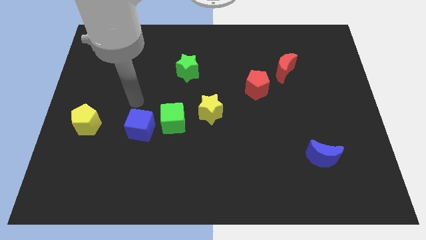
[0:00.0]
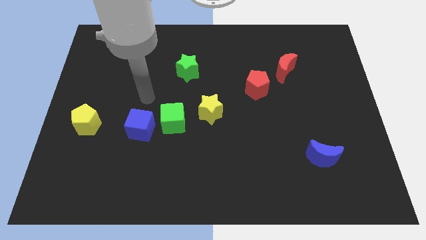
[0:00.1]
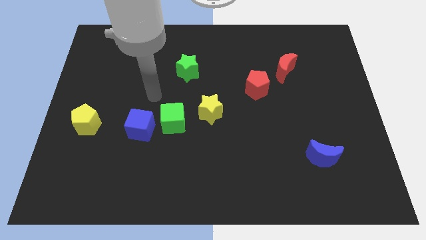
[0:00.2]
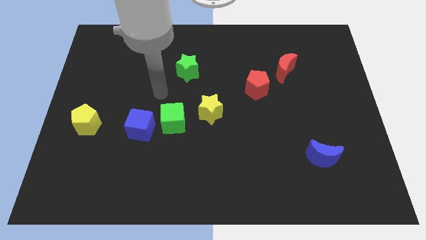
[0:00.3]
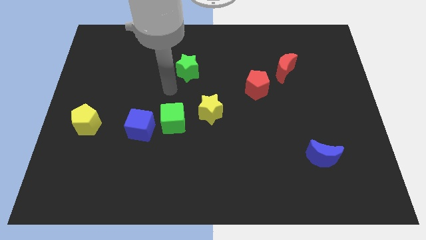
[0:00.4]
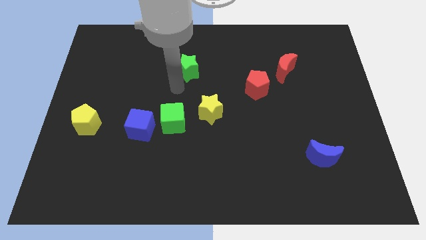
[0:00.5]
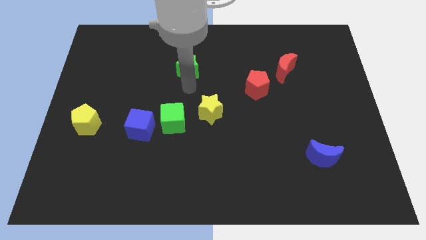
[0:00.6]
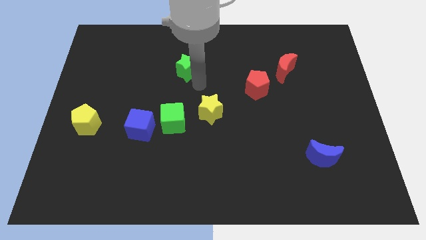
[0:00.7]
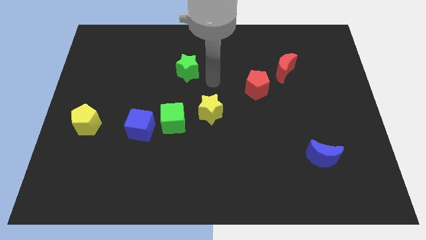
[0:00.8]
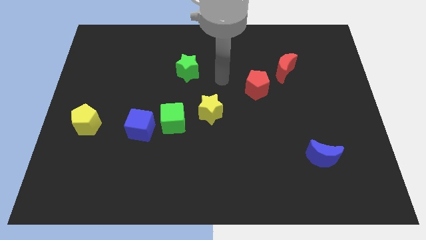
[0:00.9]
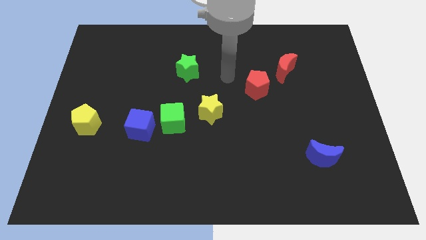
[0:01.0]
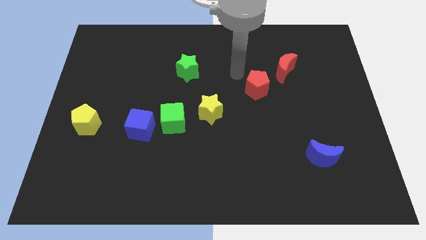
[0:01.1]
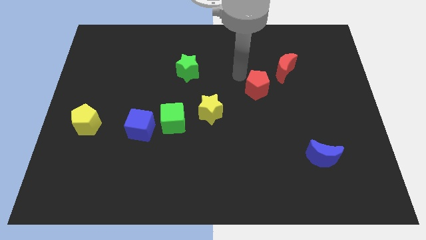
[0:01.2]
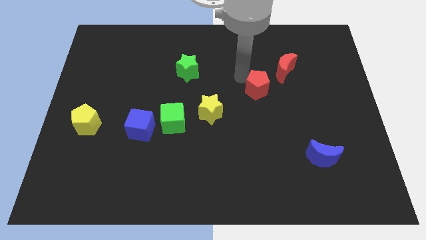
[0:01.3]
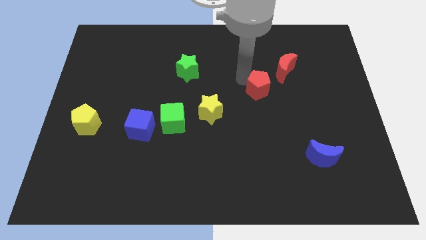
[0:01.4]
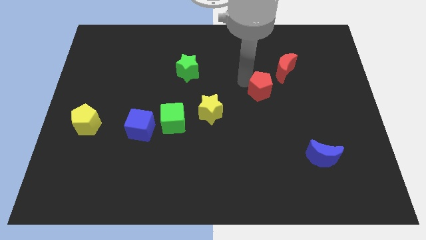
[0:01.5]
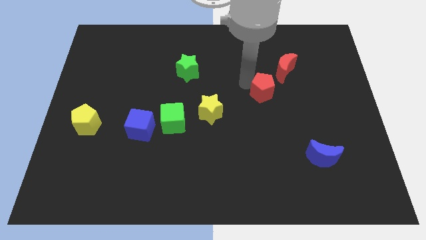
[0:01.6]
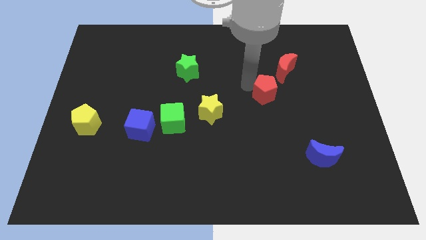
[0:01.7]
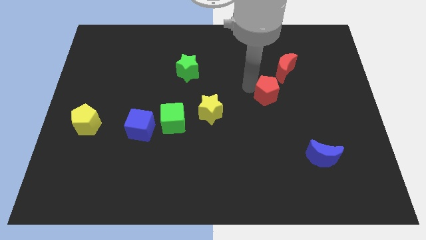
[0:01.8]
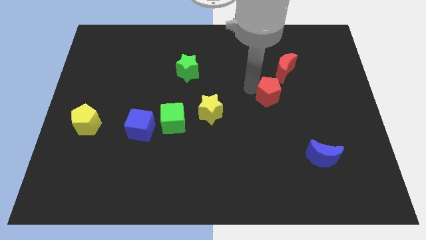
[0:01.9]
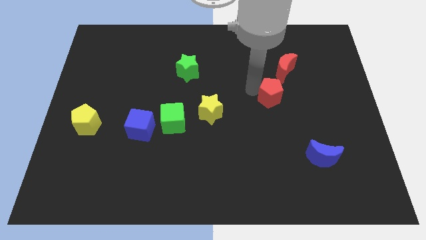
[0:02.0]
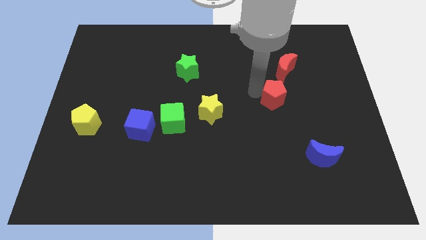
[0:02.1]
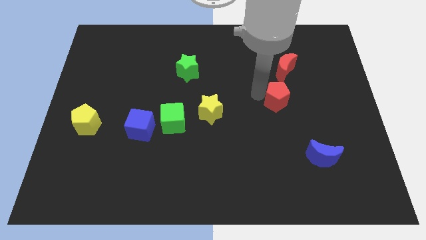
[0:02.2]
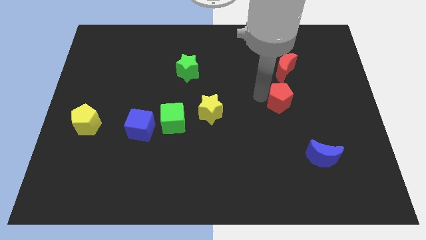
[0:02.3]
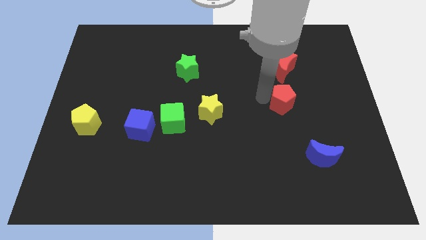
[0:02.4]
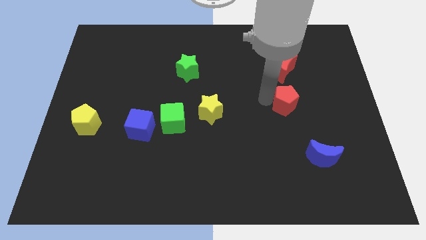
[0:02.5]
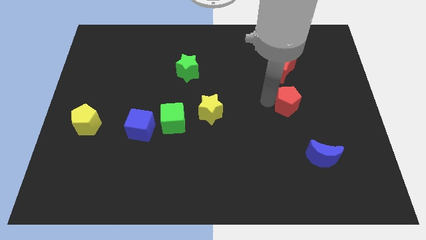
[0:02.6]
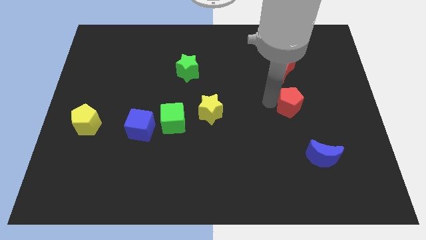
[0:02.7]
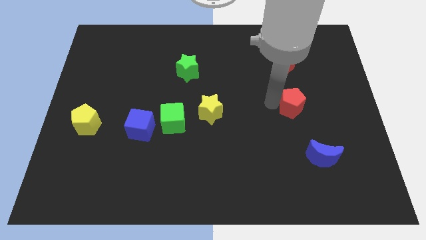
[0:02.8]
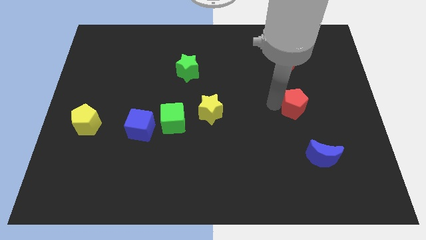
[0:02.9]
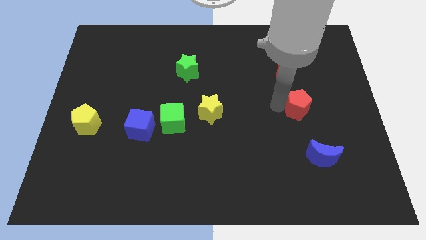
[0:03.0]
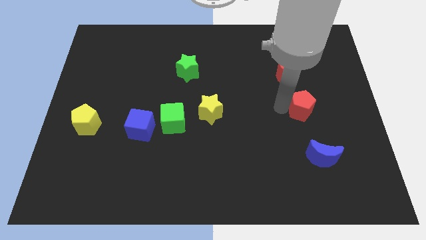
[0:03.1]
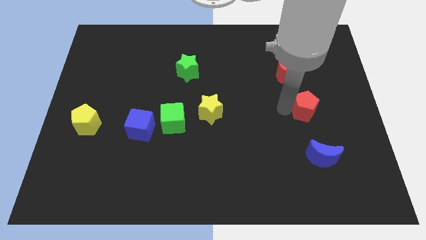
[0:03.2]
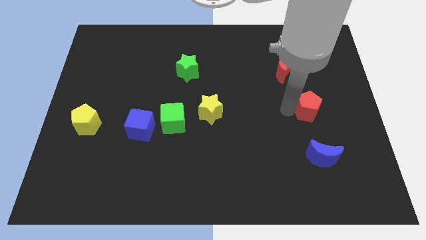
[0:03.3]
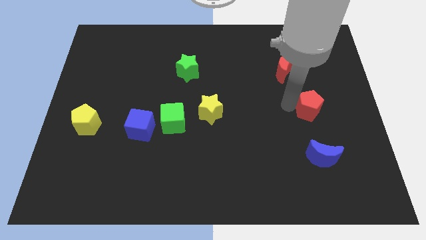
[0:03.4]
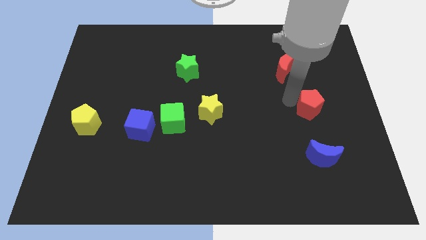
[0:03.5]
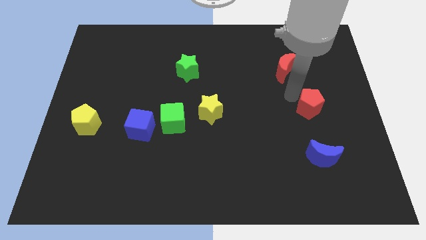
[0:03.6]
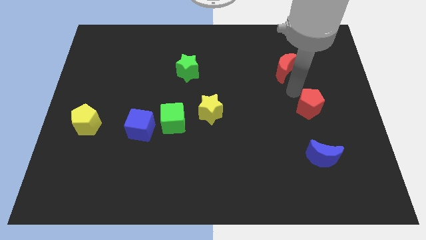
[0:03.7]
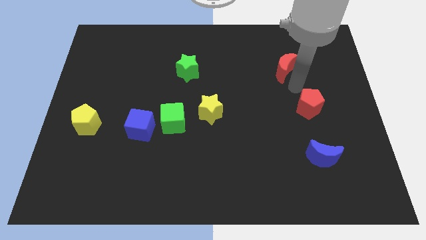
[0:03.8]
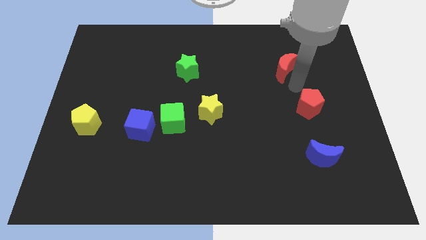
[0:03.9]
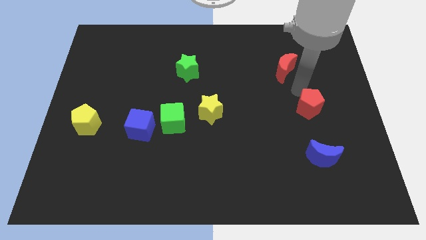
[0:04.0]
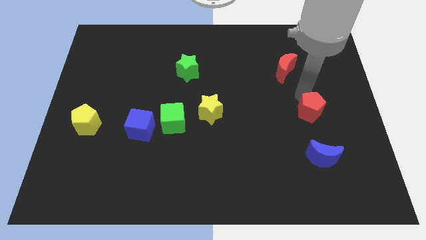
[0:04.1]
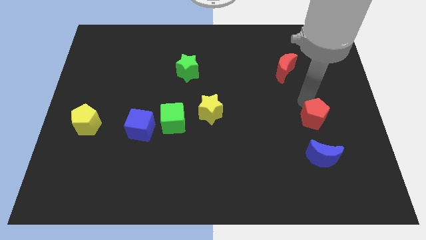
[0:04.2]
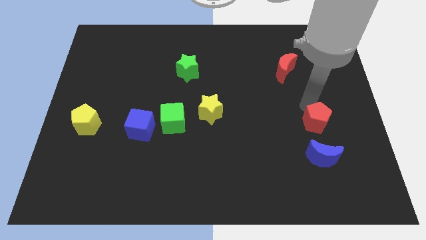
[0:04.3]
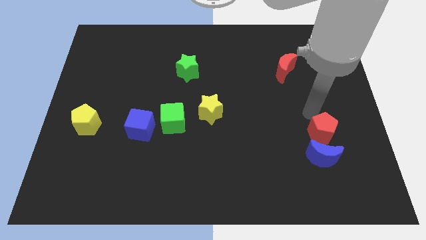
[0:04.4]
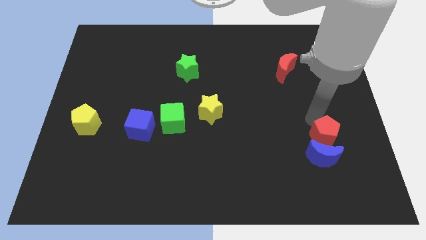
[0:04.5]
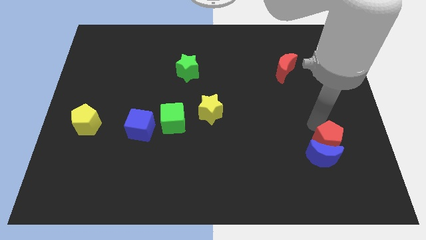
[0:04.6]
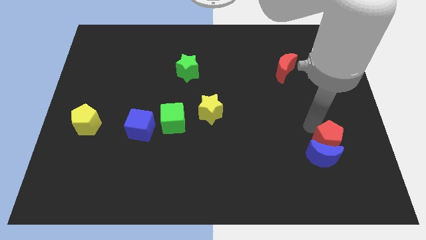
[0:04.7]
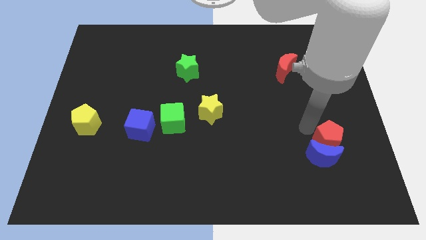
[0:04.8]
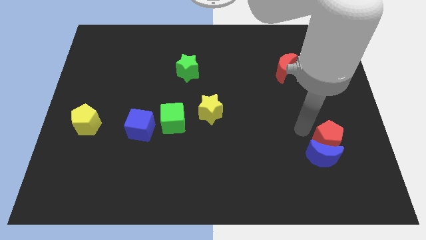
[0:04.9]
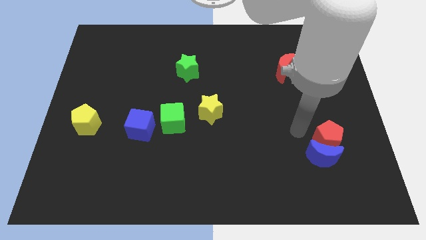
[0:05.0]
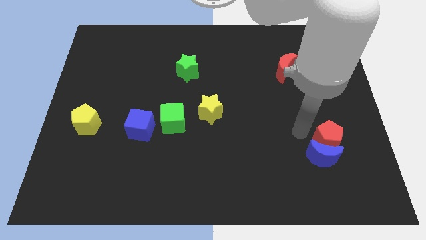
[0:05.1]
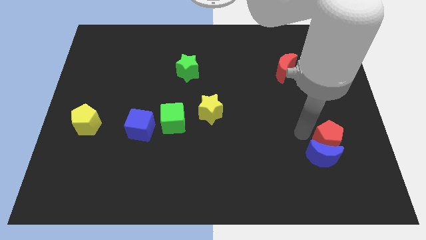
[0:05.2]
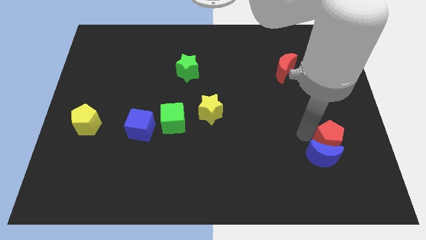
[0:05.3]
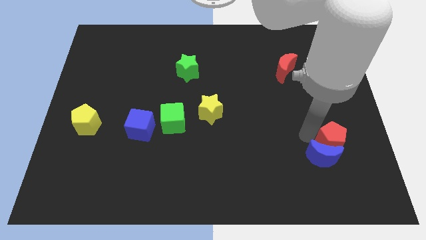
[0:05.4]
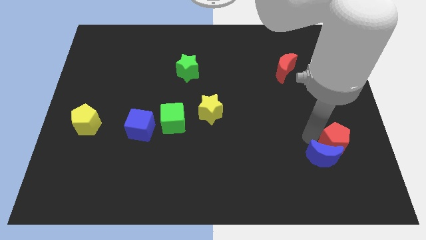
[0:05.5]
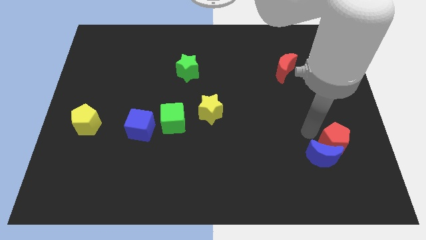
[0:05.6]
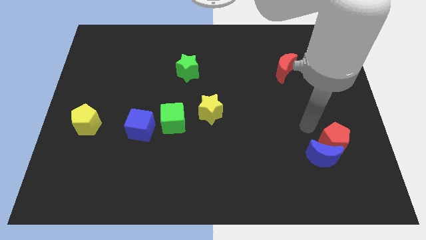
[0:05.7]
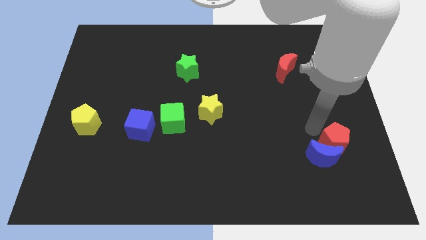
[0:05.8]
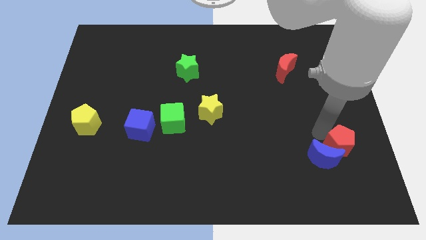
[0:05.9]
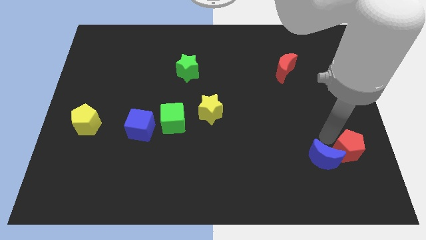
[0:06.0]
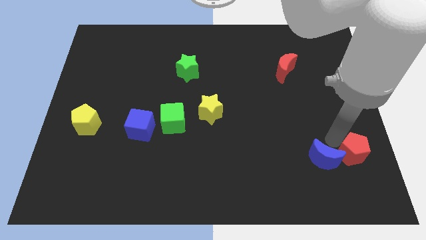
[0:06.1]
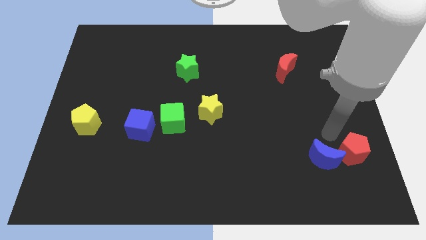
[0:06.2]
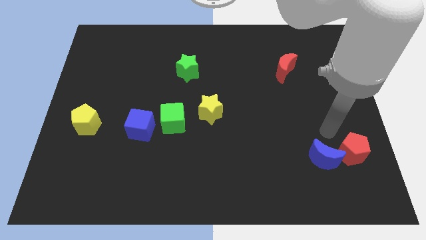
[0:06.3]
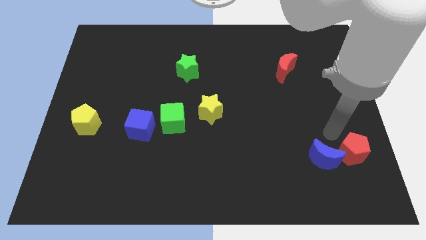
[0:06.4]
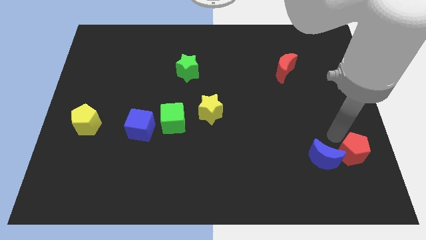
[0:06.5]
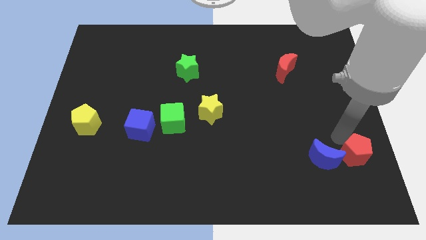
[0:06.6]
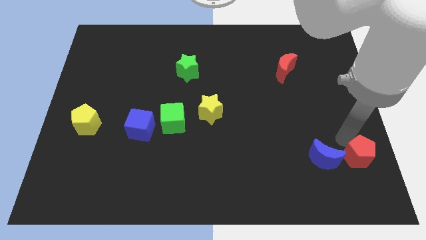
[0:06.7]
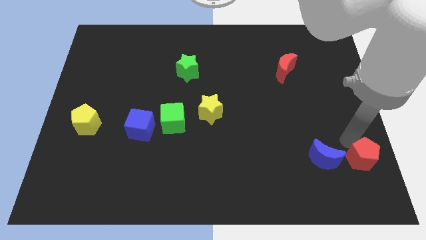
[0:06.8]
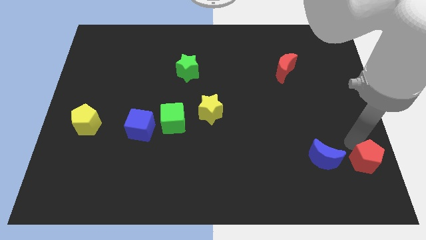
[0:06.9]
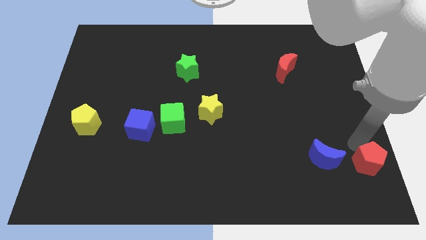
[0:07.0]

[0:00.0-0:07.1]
push the red pentagon to the lower right corner
